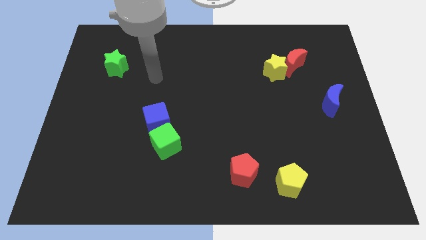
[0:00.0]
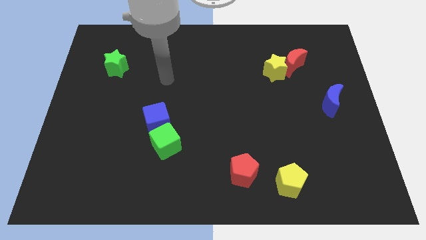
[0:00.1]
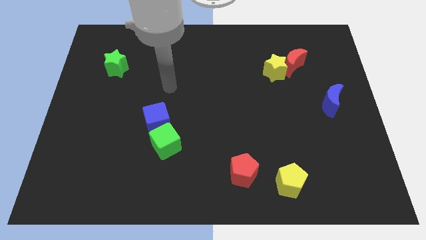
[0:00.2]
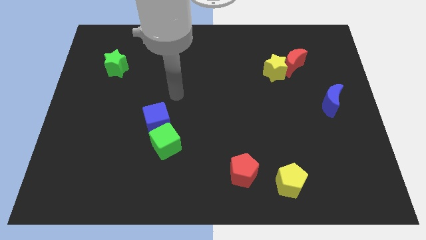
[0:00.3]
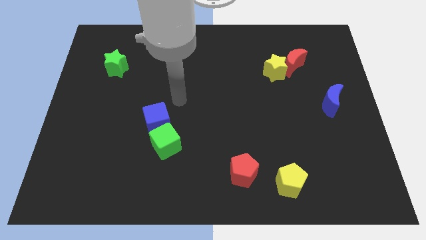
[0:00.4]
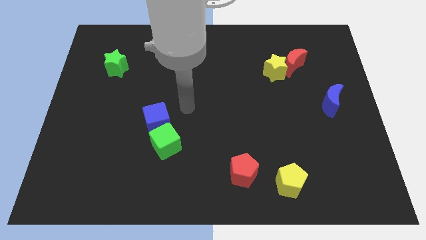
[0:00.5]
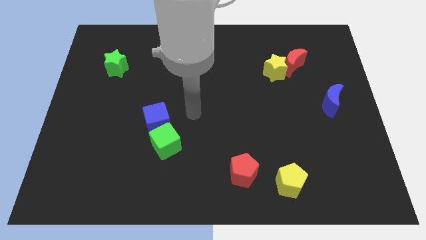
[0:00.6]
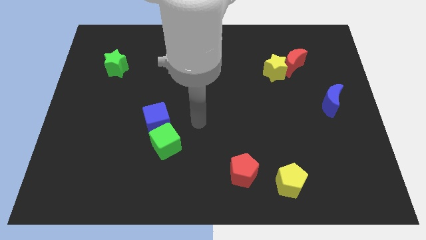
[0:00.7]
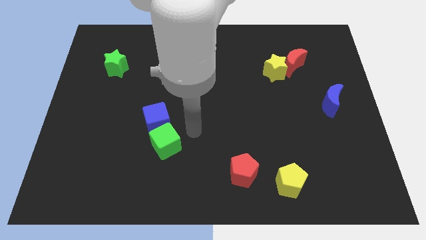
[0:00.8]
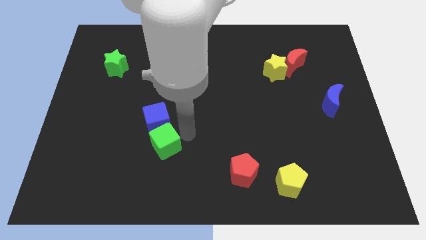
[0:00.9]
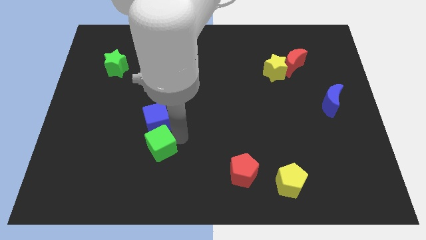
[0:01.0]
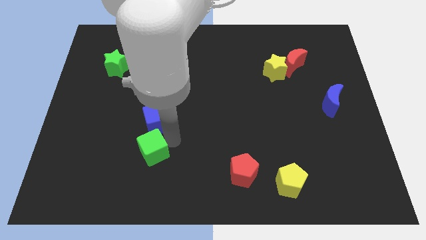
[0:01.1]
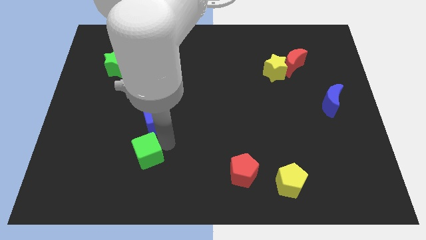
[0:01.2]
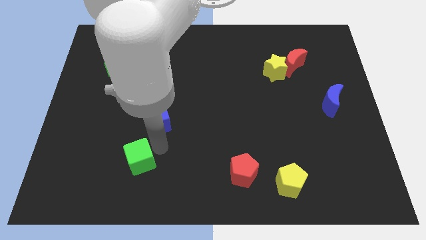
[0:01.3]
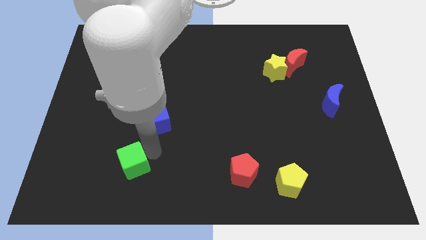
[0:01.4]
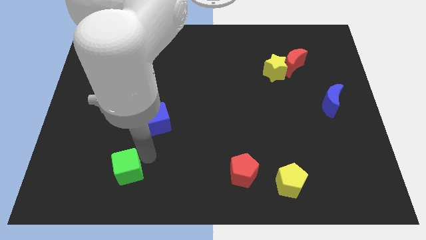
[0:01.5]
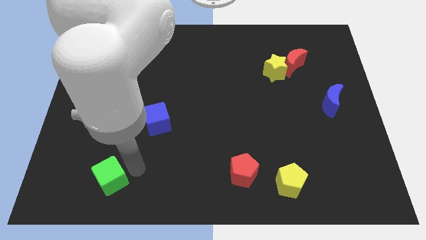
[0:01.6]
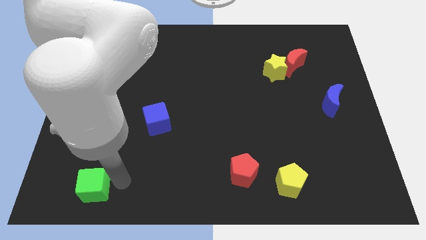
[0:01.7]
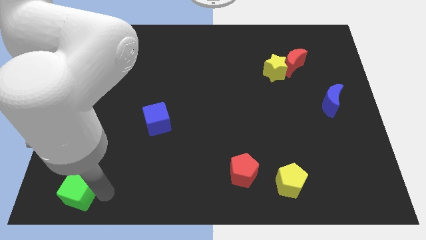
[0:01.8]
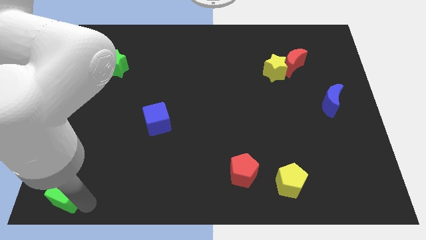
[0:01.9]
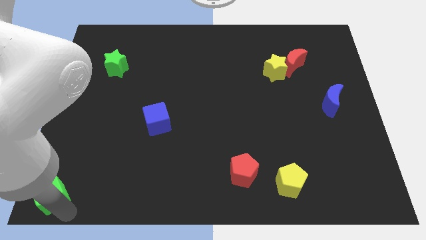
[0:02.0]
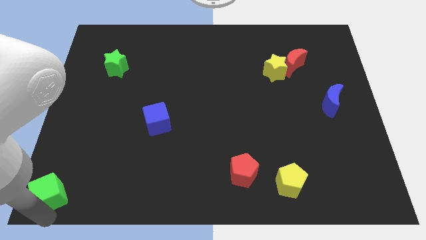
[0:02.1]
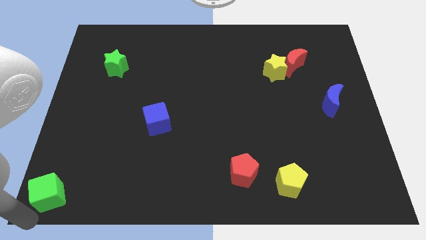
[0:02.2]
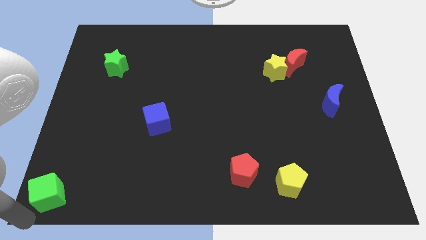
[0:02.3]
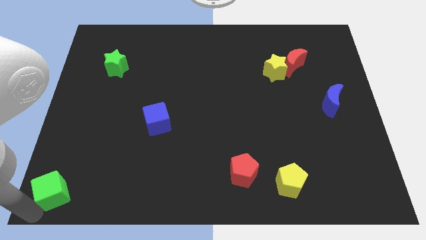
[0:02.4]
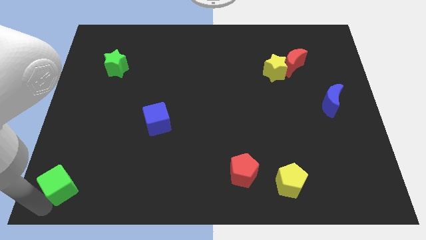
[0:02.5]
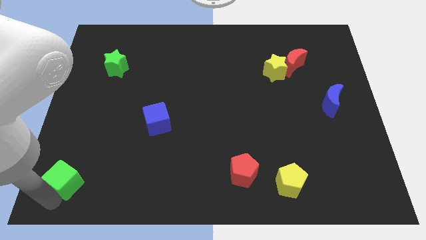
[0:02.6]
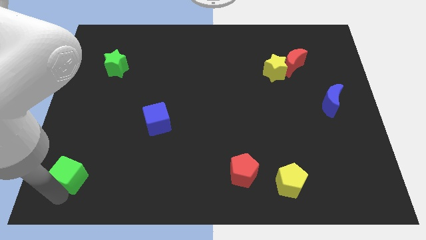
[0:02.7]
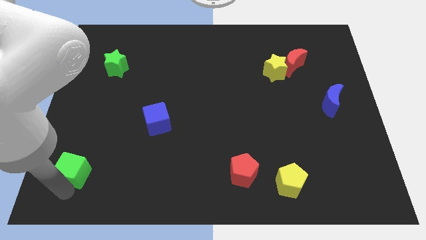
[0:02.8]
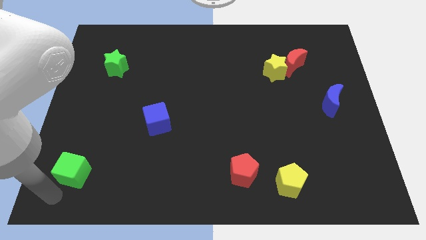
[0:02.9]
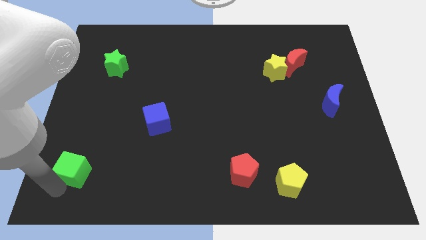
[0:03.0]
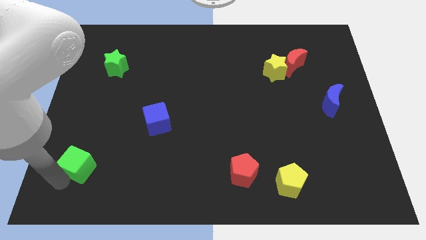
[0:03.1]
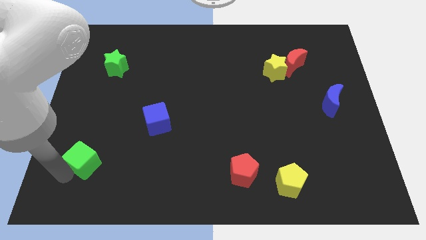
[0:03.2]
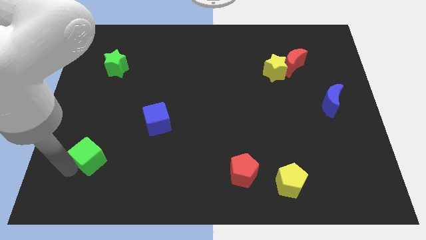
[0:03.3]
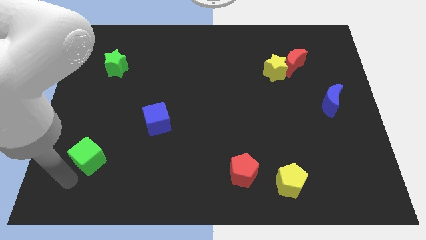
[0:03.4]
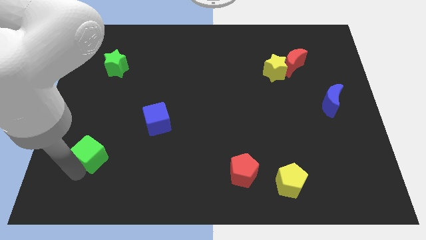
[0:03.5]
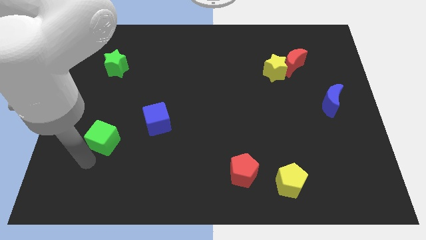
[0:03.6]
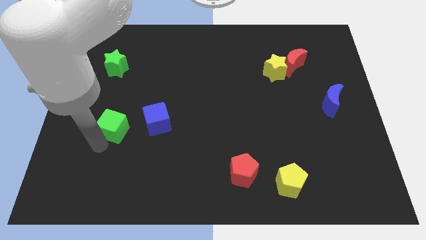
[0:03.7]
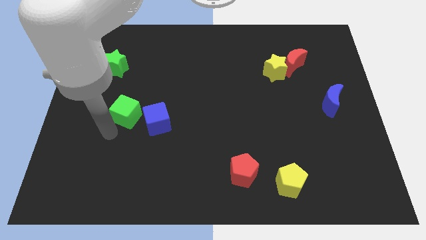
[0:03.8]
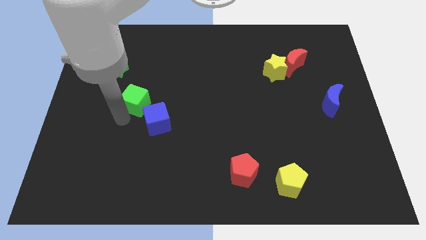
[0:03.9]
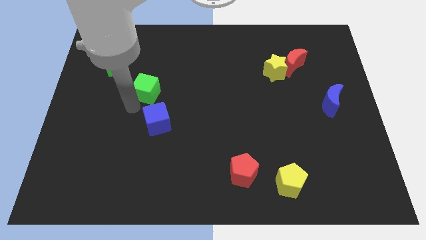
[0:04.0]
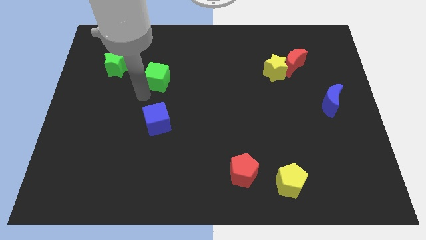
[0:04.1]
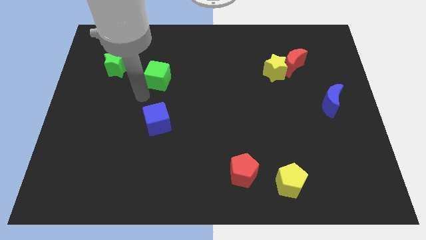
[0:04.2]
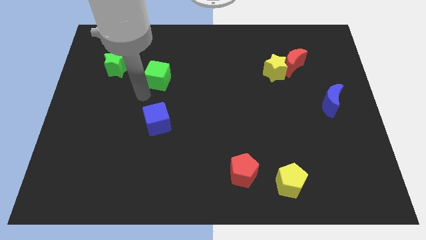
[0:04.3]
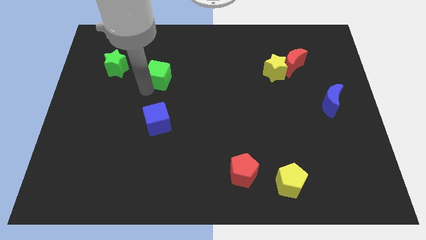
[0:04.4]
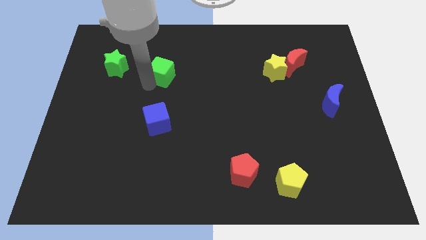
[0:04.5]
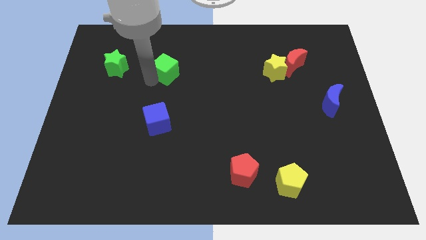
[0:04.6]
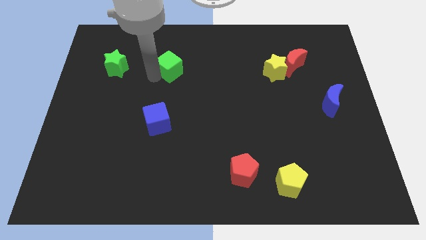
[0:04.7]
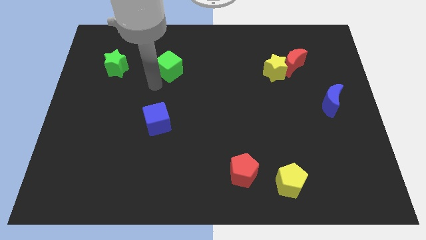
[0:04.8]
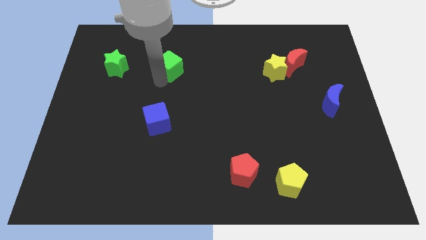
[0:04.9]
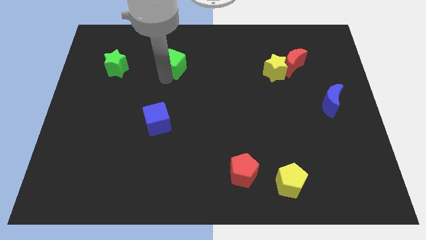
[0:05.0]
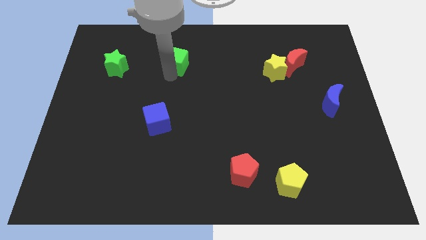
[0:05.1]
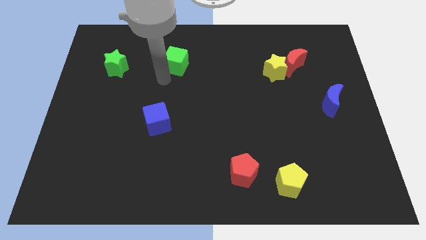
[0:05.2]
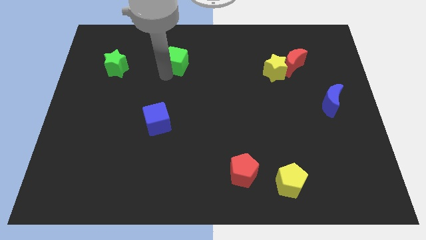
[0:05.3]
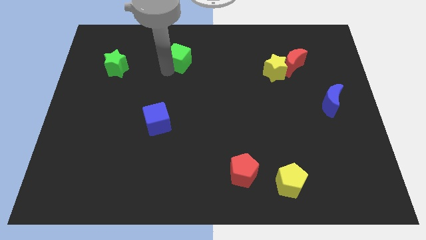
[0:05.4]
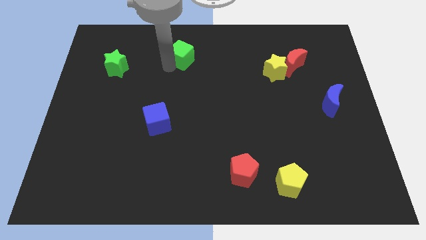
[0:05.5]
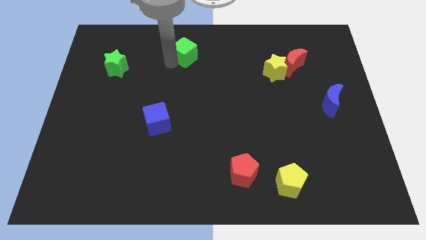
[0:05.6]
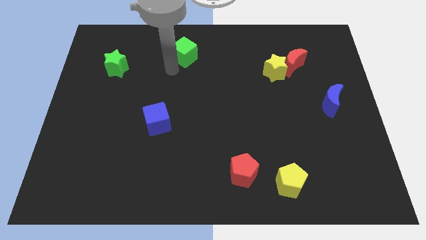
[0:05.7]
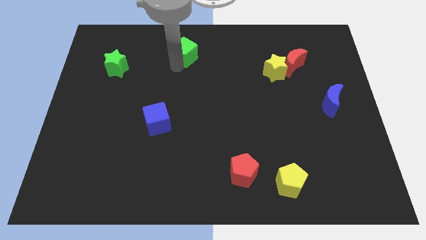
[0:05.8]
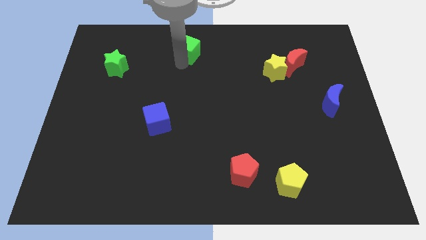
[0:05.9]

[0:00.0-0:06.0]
slide the green cube to the top side

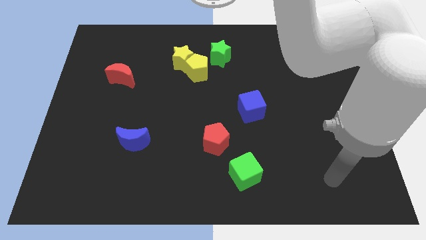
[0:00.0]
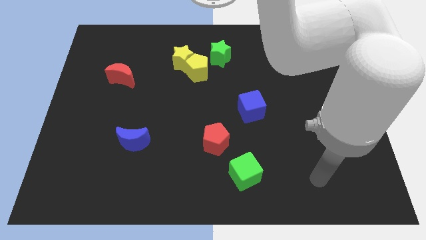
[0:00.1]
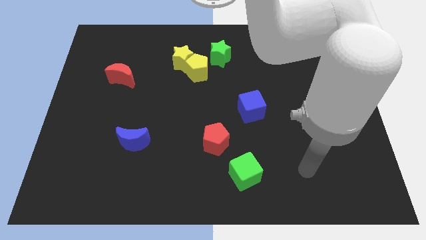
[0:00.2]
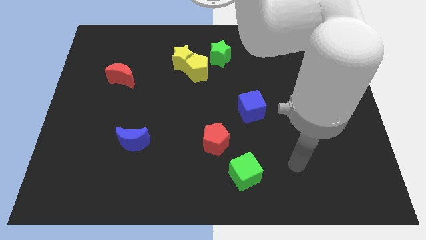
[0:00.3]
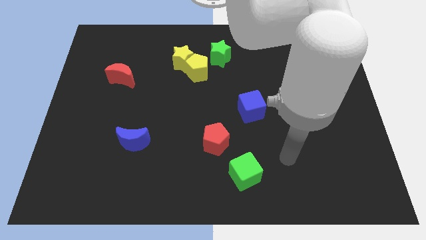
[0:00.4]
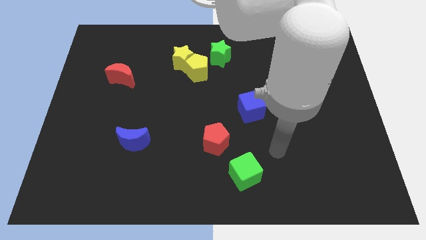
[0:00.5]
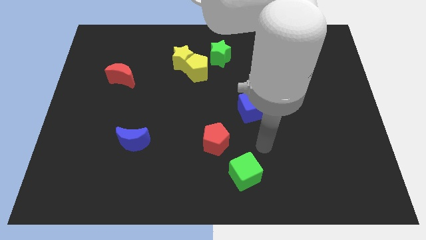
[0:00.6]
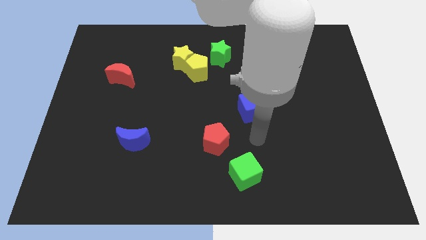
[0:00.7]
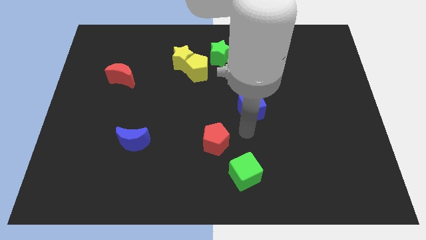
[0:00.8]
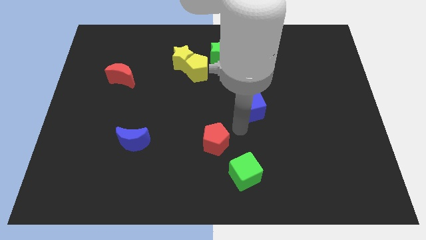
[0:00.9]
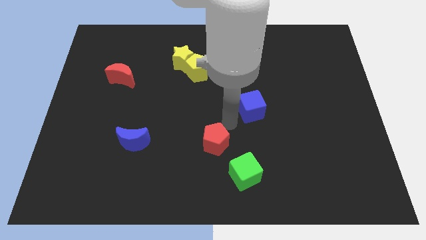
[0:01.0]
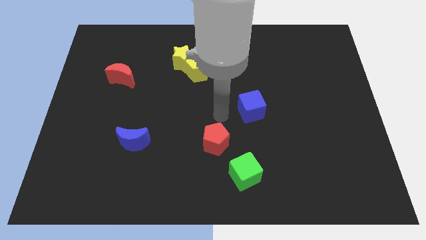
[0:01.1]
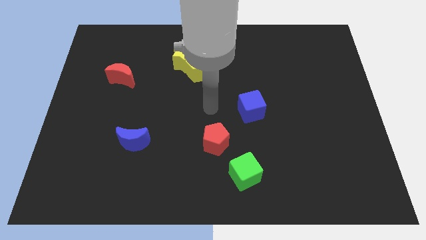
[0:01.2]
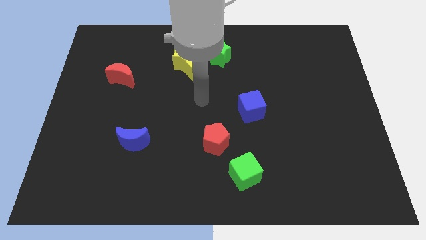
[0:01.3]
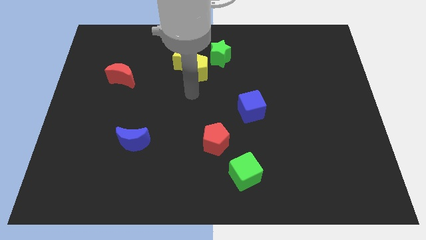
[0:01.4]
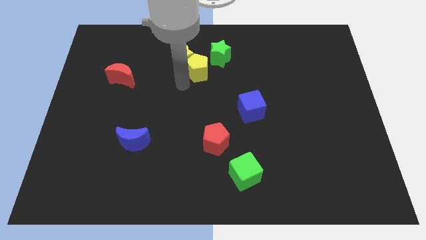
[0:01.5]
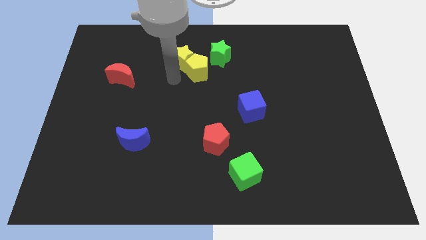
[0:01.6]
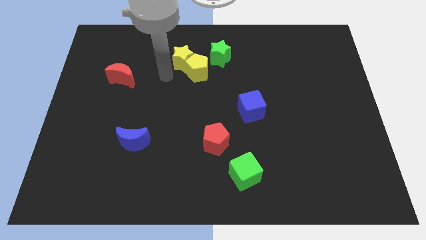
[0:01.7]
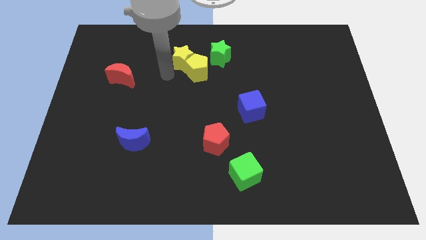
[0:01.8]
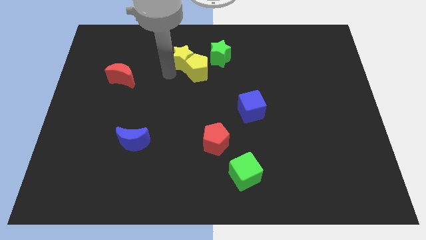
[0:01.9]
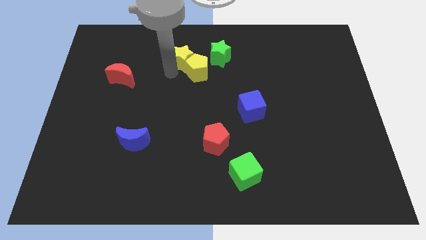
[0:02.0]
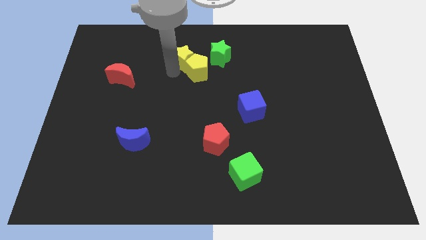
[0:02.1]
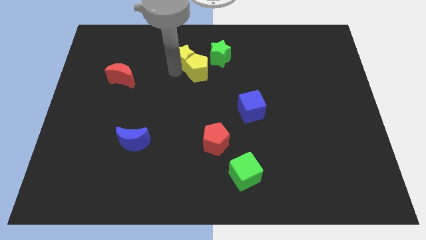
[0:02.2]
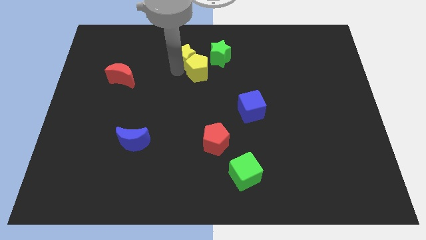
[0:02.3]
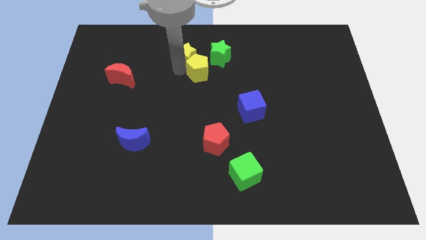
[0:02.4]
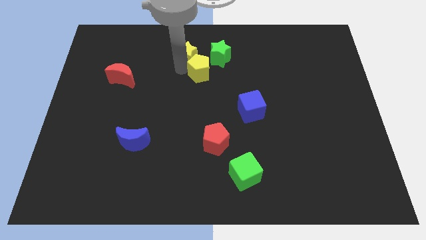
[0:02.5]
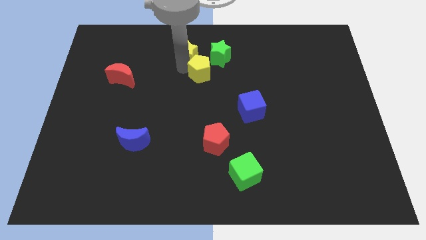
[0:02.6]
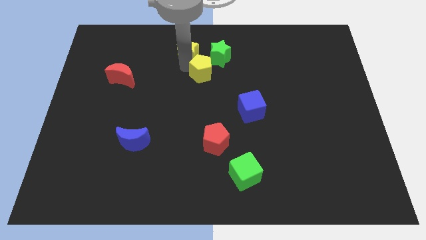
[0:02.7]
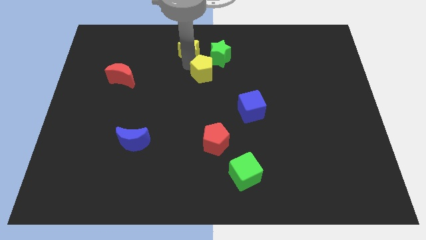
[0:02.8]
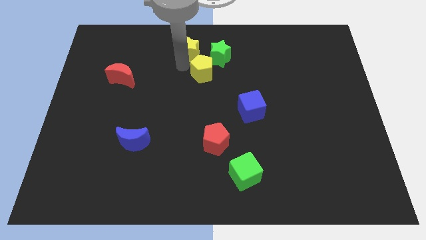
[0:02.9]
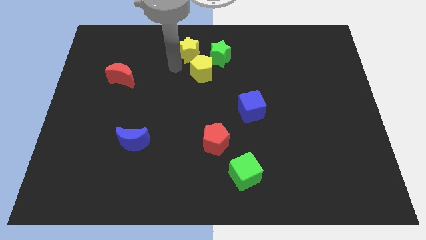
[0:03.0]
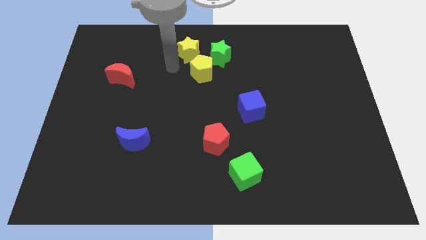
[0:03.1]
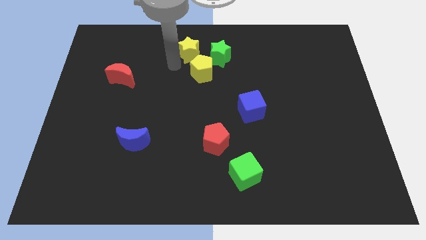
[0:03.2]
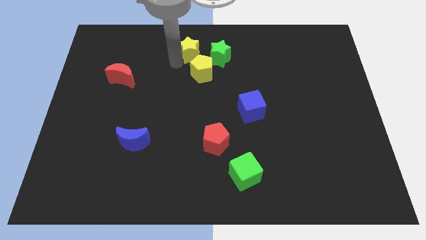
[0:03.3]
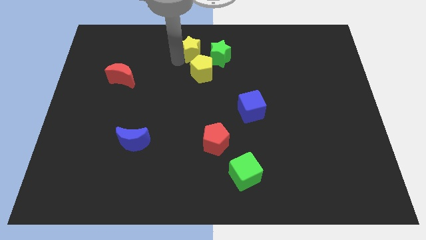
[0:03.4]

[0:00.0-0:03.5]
move the yellow star to the towards your base
